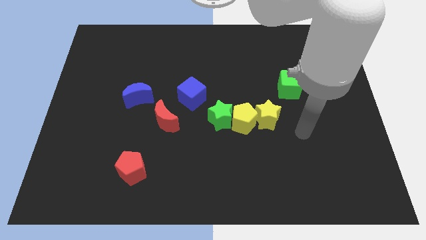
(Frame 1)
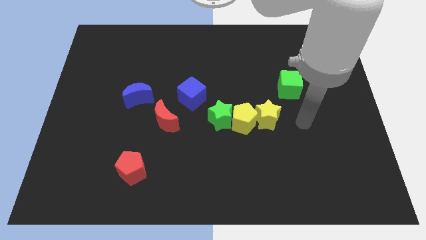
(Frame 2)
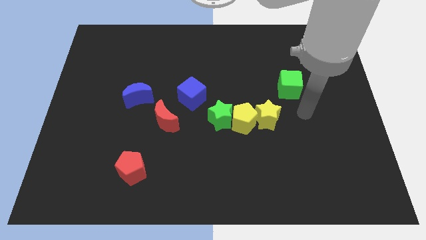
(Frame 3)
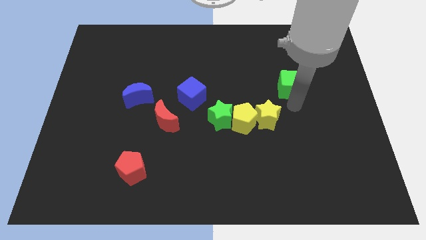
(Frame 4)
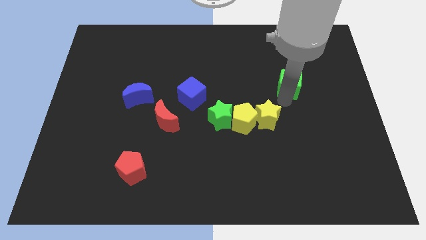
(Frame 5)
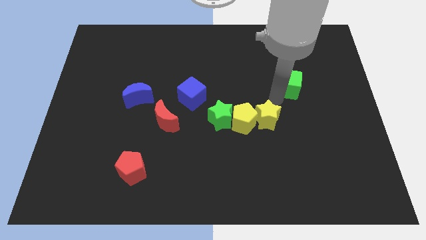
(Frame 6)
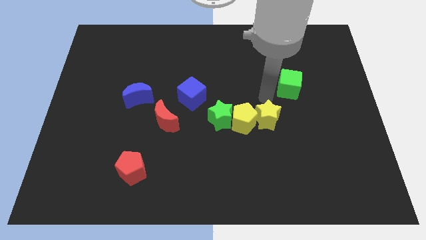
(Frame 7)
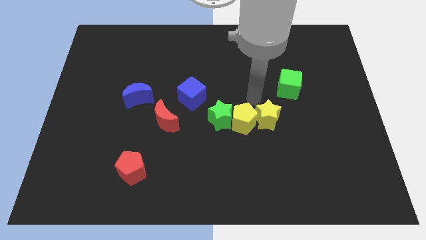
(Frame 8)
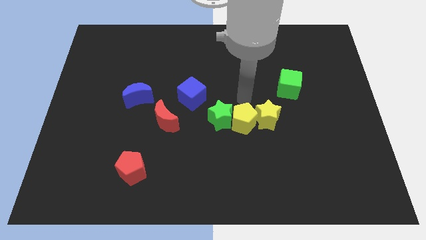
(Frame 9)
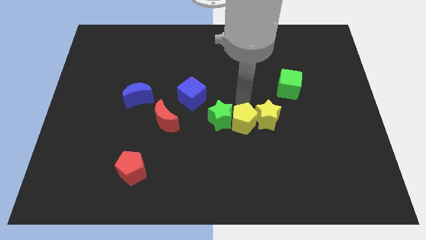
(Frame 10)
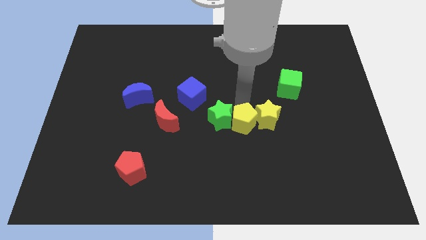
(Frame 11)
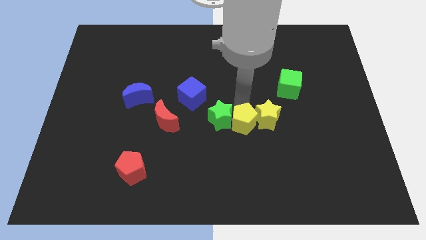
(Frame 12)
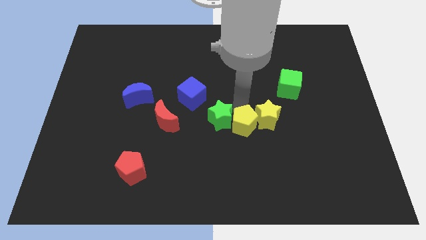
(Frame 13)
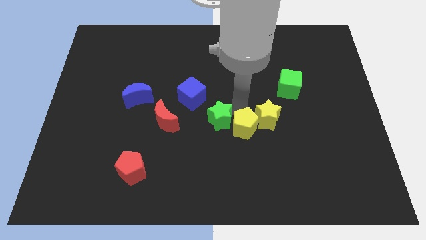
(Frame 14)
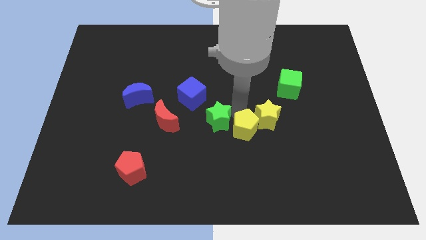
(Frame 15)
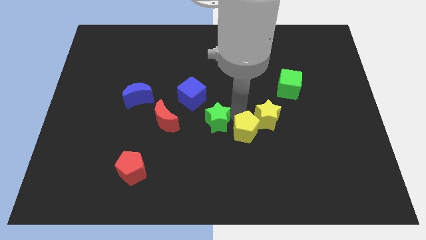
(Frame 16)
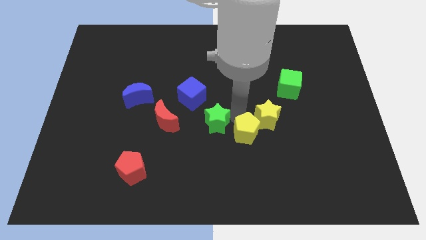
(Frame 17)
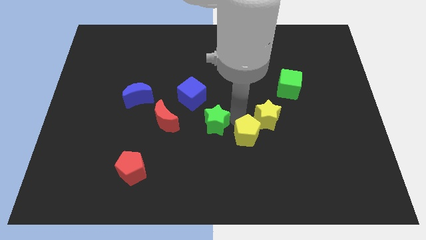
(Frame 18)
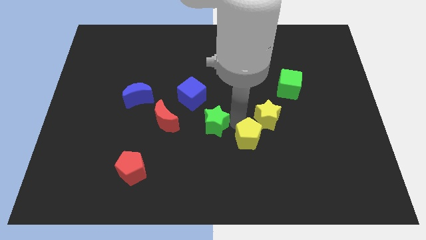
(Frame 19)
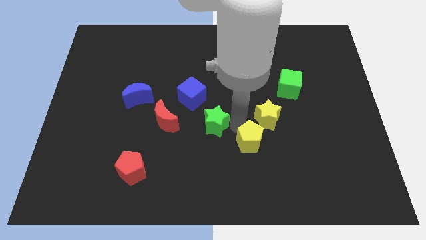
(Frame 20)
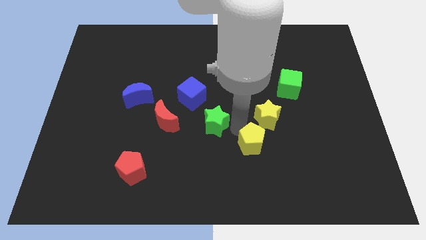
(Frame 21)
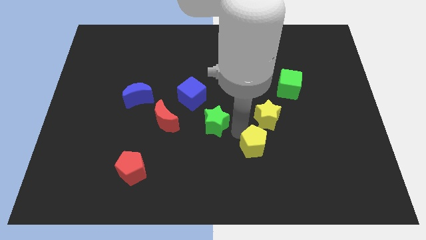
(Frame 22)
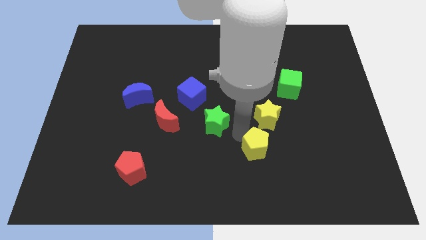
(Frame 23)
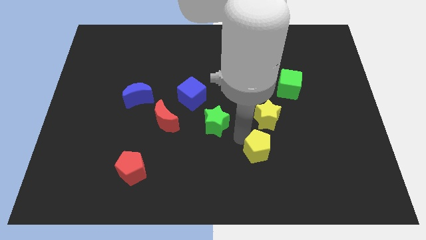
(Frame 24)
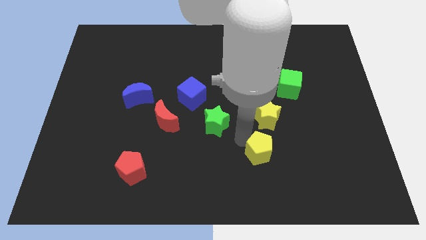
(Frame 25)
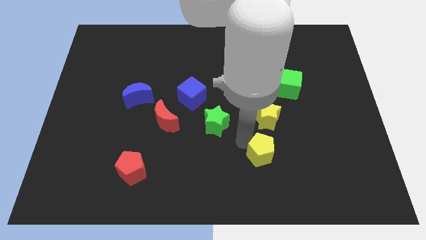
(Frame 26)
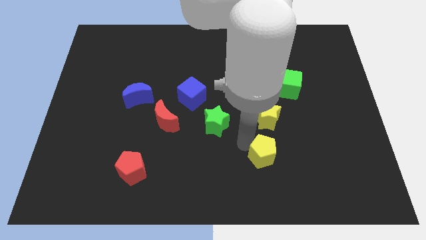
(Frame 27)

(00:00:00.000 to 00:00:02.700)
separate the yellow pentagon from the green star and yellow star

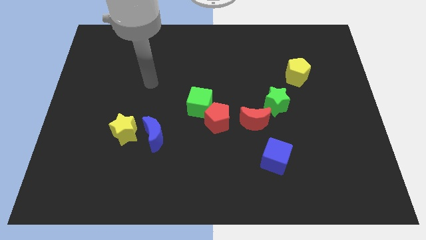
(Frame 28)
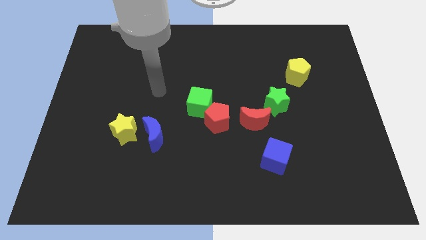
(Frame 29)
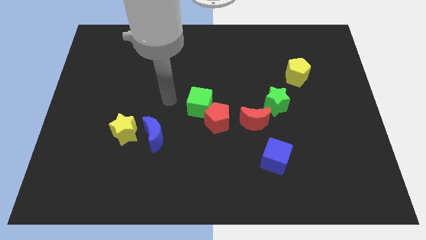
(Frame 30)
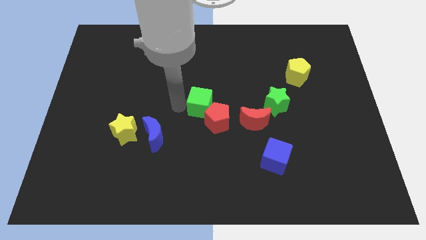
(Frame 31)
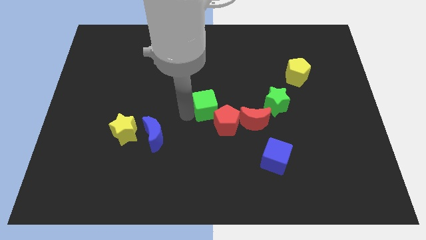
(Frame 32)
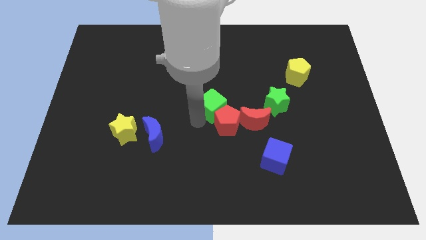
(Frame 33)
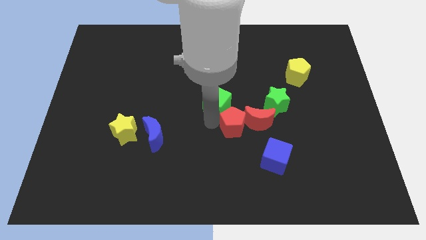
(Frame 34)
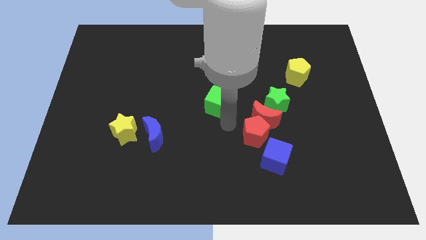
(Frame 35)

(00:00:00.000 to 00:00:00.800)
move the green cube away from the red pentagon

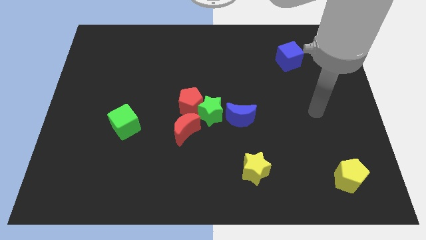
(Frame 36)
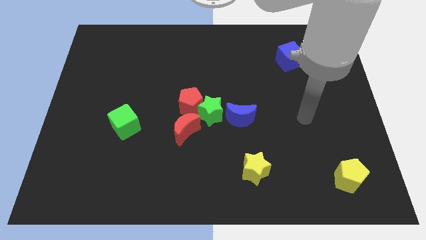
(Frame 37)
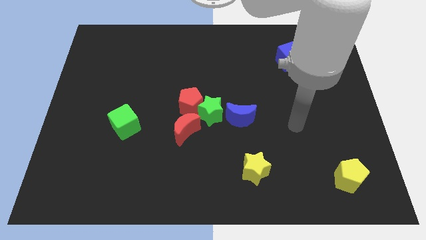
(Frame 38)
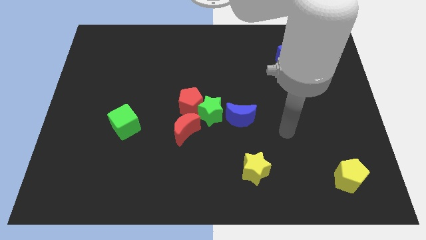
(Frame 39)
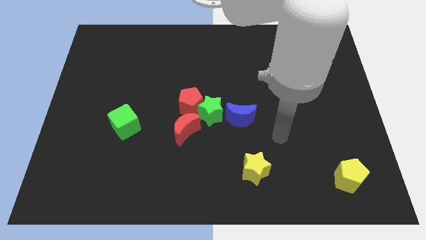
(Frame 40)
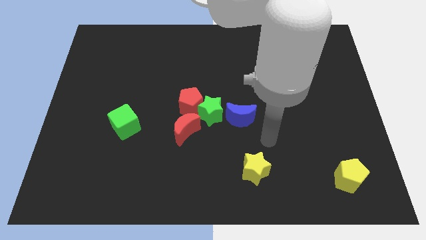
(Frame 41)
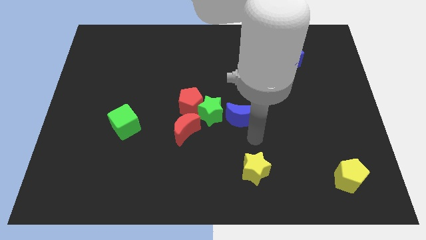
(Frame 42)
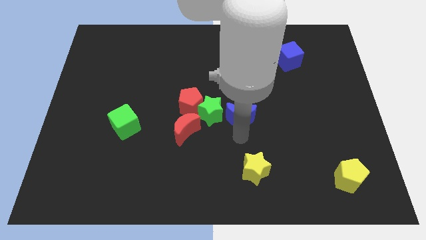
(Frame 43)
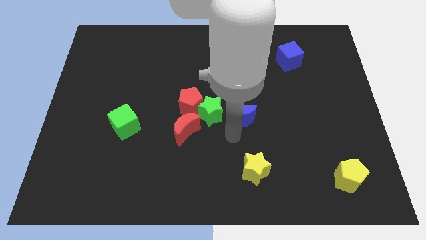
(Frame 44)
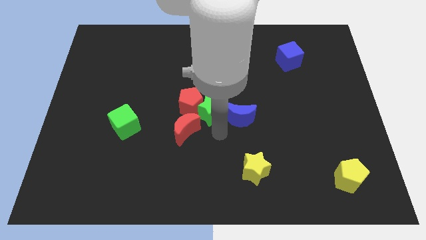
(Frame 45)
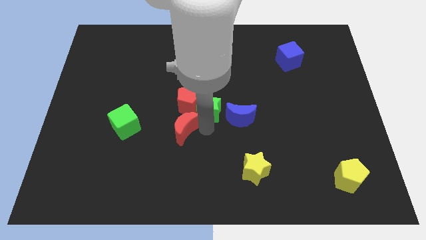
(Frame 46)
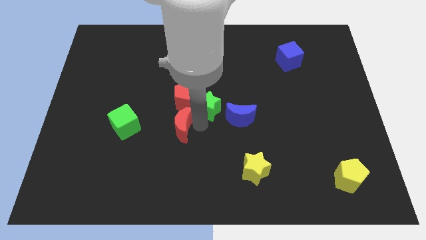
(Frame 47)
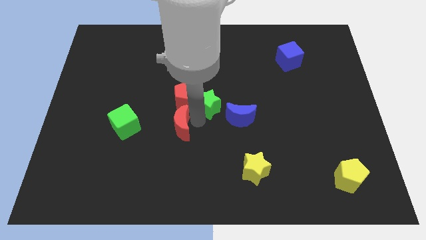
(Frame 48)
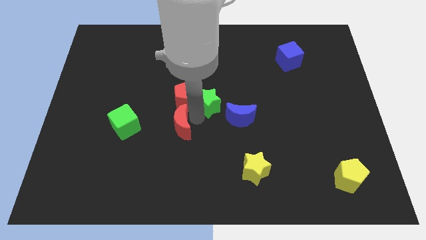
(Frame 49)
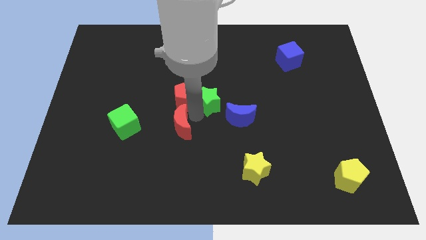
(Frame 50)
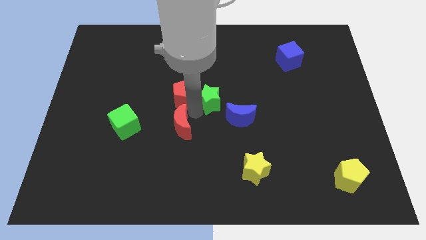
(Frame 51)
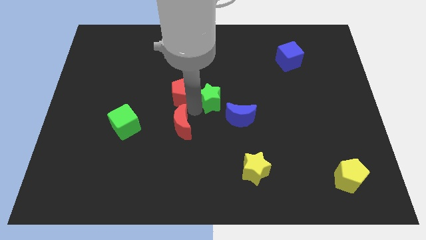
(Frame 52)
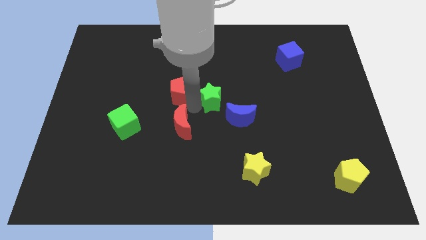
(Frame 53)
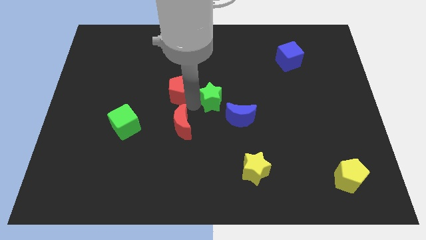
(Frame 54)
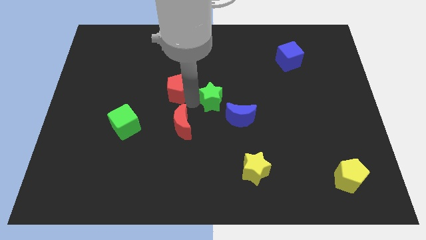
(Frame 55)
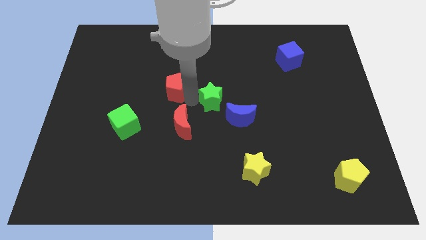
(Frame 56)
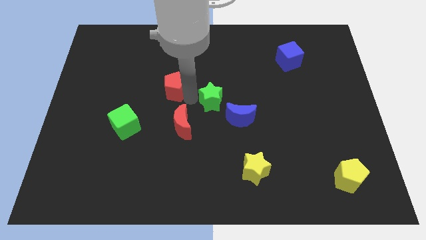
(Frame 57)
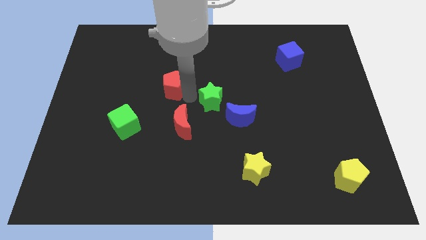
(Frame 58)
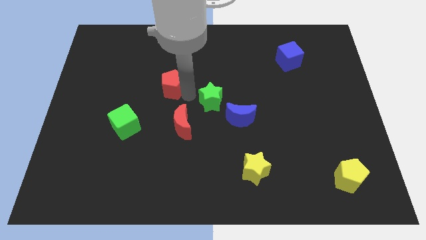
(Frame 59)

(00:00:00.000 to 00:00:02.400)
separate the red pentagon from the green star and red moon

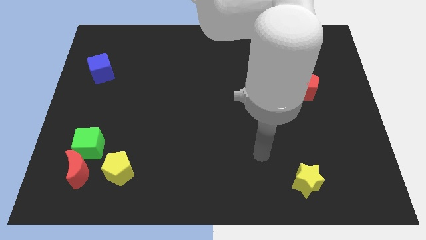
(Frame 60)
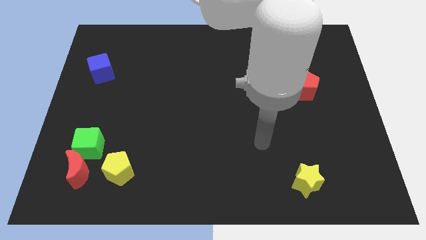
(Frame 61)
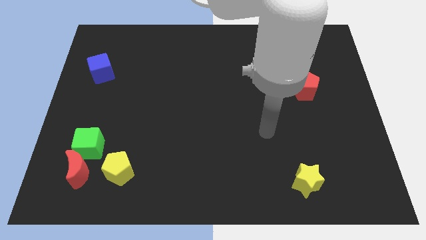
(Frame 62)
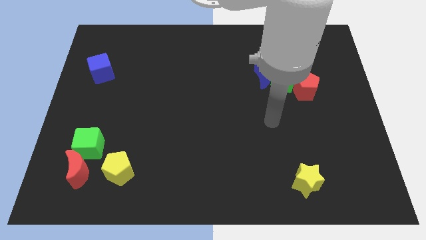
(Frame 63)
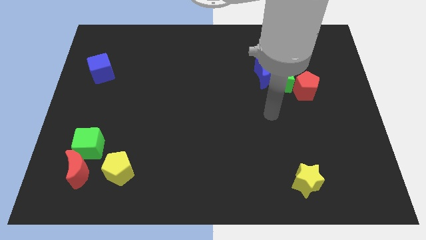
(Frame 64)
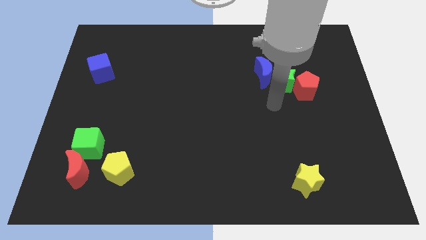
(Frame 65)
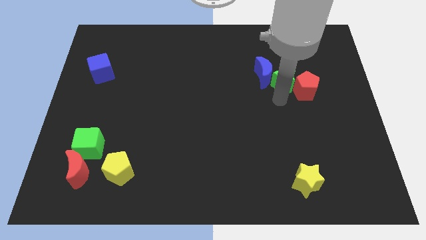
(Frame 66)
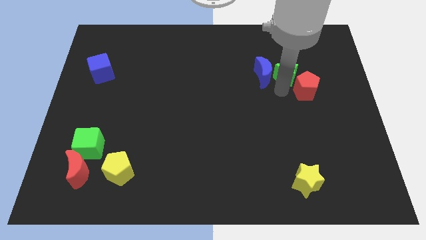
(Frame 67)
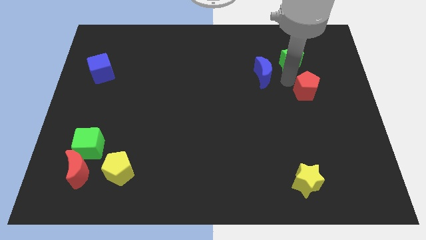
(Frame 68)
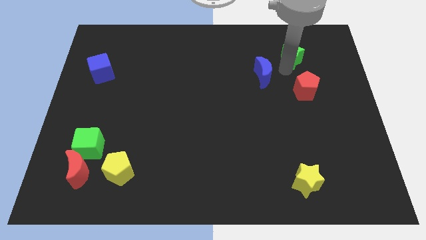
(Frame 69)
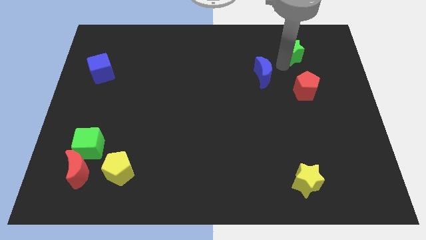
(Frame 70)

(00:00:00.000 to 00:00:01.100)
pull the blue moon apart from the green star

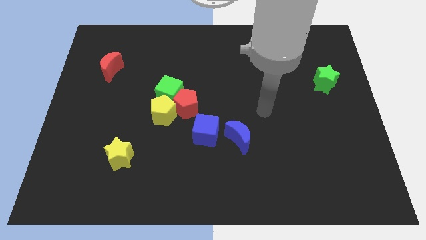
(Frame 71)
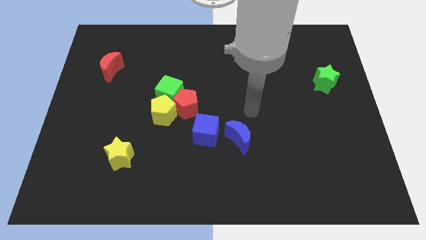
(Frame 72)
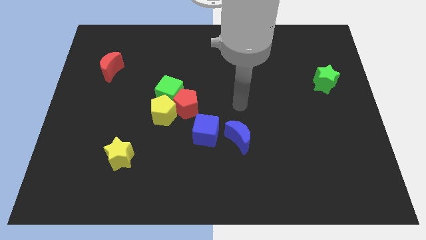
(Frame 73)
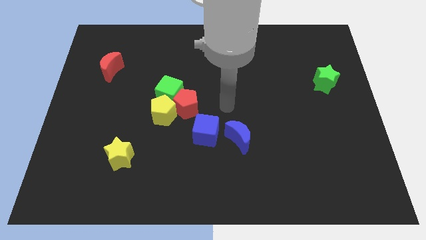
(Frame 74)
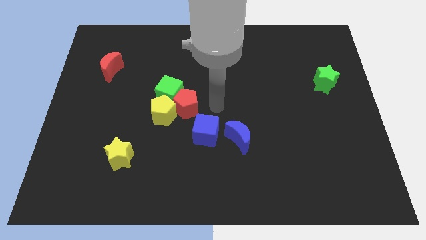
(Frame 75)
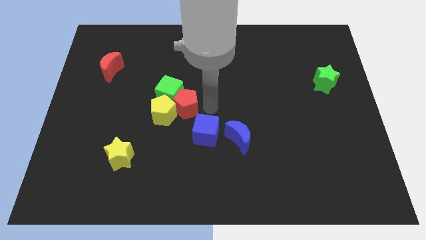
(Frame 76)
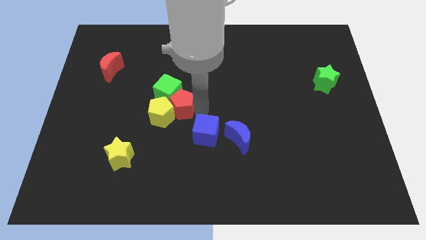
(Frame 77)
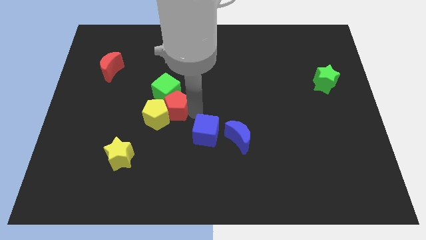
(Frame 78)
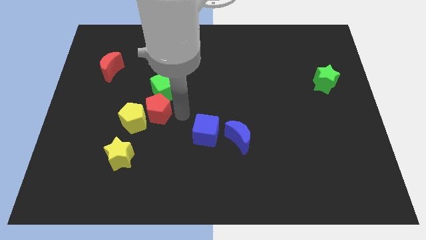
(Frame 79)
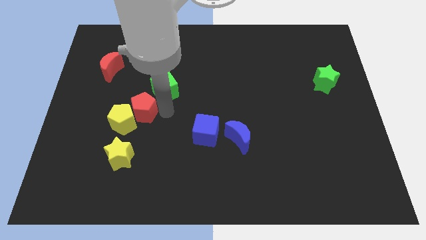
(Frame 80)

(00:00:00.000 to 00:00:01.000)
move the green cube away from the red pentagon and yellow pentagon

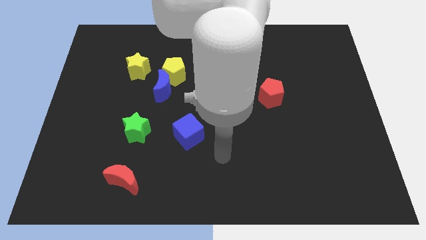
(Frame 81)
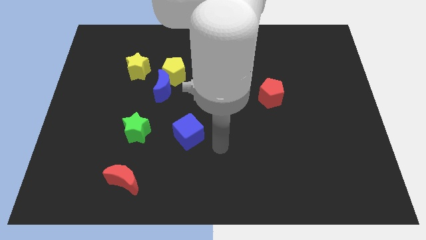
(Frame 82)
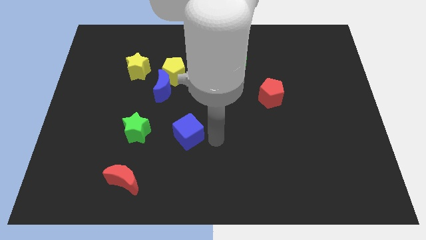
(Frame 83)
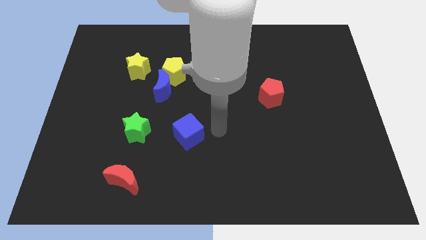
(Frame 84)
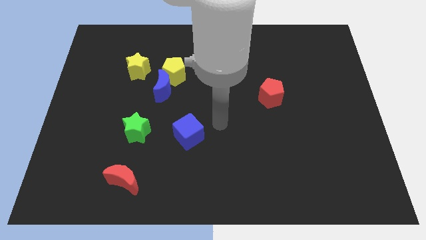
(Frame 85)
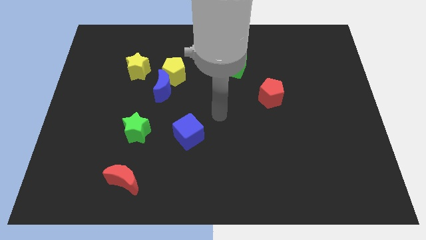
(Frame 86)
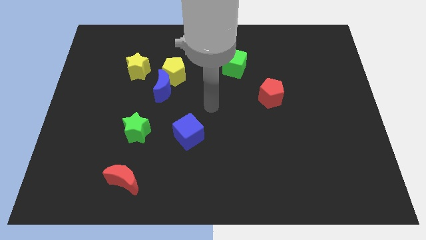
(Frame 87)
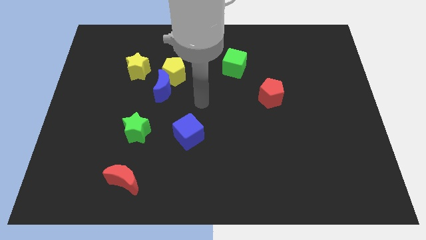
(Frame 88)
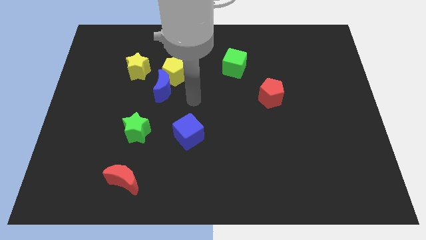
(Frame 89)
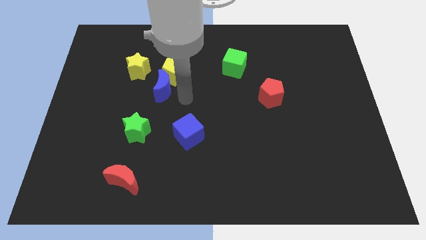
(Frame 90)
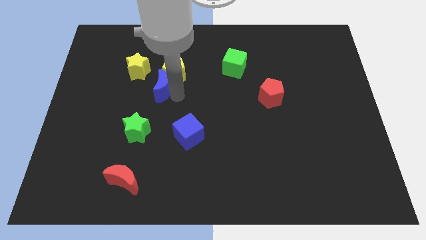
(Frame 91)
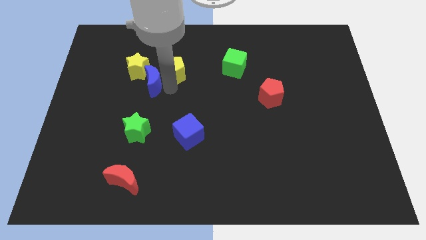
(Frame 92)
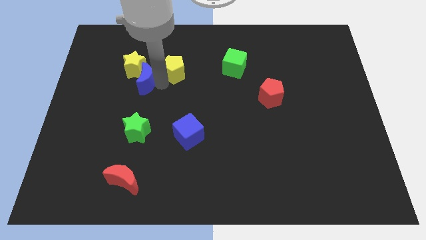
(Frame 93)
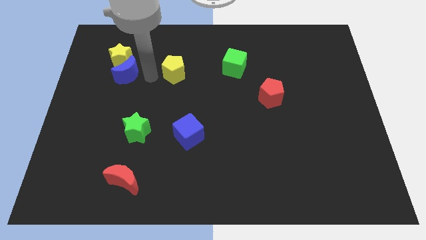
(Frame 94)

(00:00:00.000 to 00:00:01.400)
move the yellow pentagon away from the blue moon and yellow star
